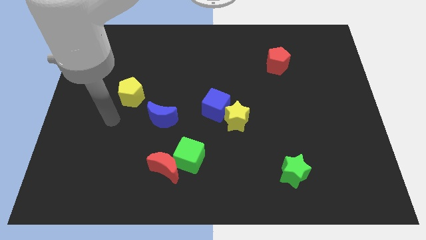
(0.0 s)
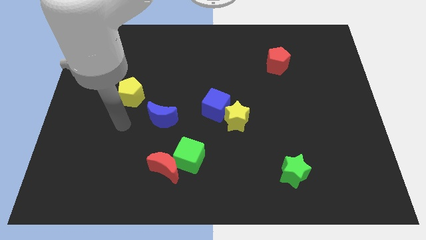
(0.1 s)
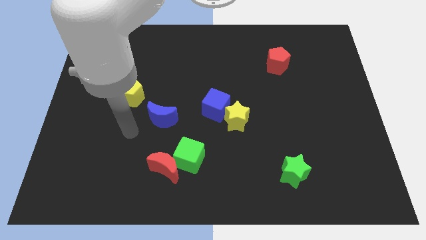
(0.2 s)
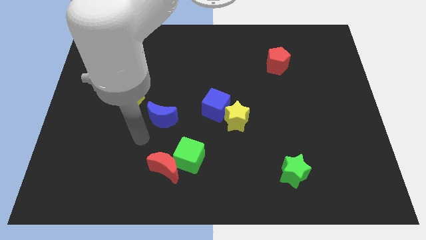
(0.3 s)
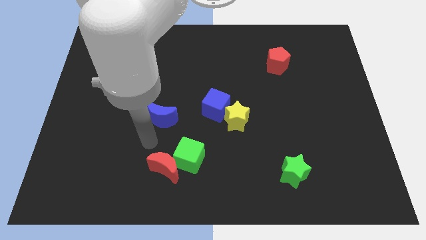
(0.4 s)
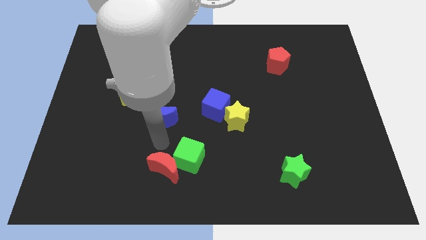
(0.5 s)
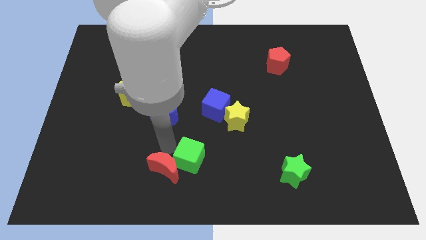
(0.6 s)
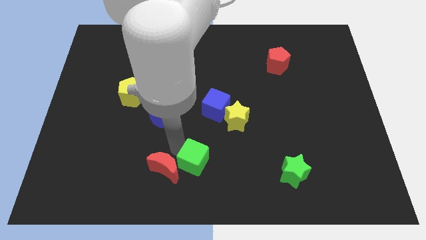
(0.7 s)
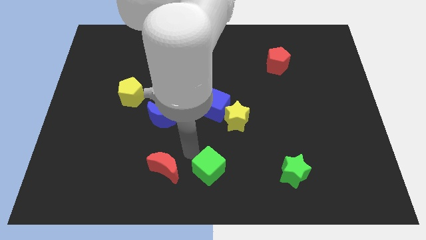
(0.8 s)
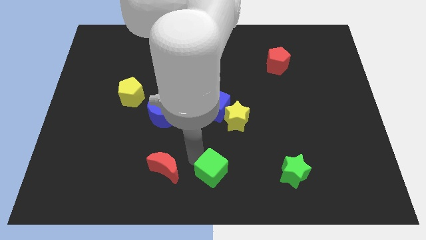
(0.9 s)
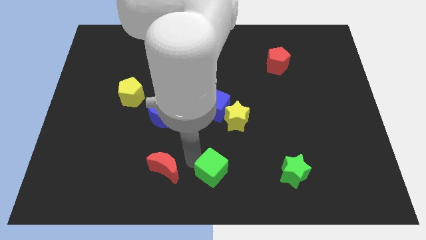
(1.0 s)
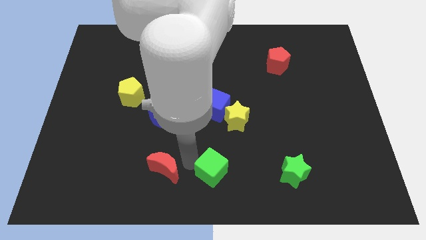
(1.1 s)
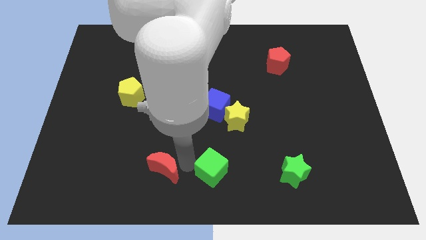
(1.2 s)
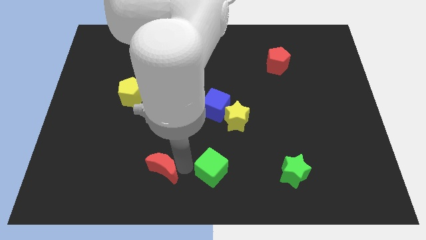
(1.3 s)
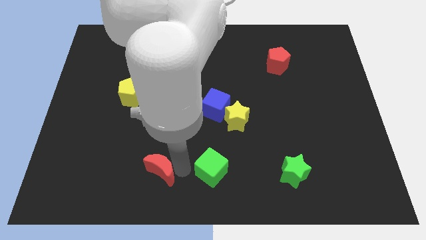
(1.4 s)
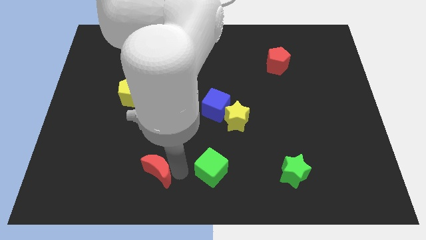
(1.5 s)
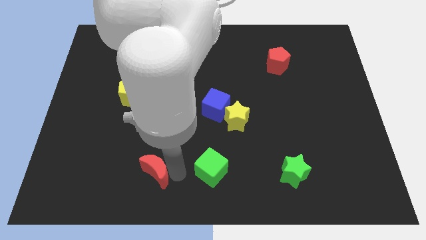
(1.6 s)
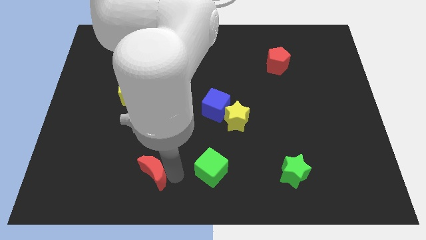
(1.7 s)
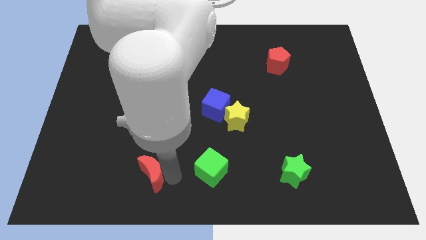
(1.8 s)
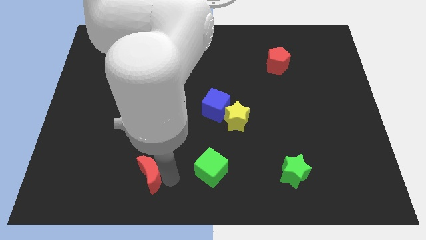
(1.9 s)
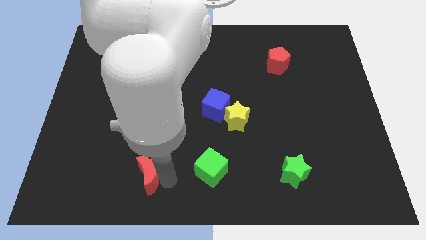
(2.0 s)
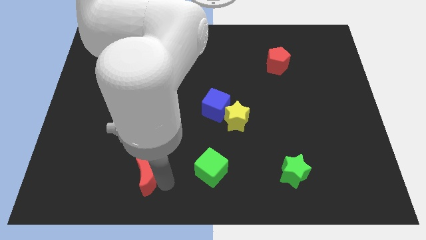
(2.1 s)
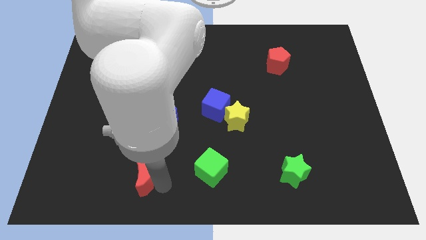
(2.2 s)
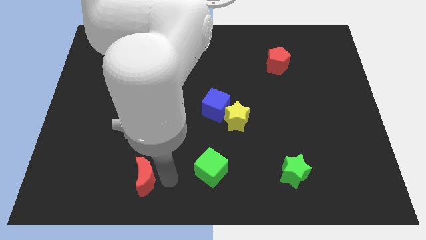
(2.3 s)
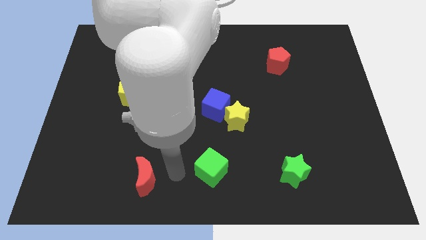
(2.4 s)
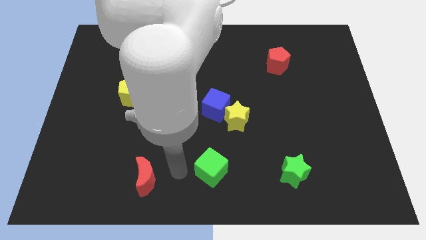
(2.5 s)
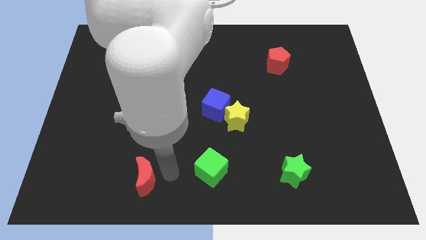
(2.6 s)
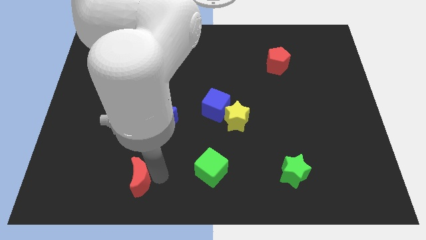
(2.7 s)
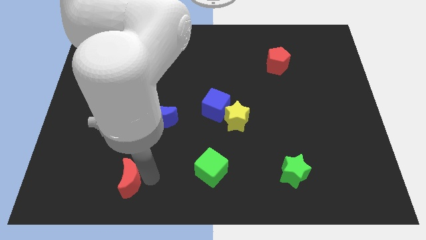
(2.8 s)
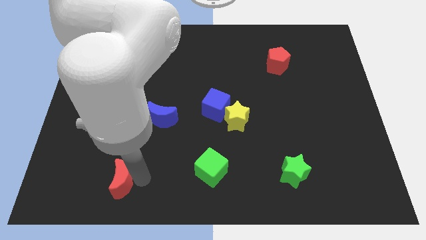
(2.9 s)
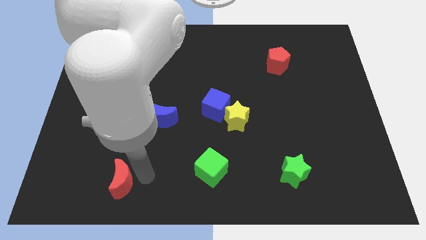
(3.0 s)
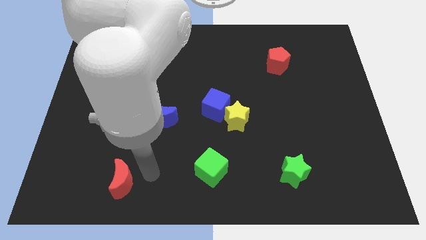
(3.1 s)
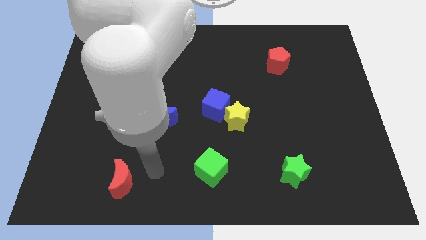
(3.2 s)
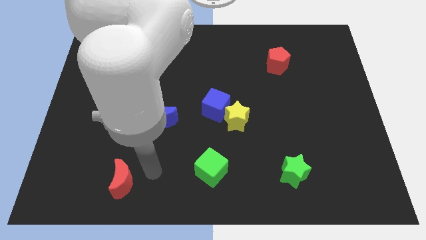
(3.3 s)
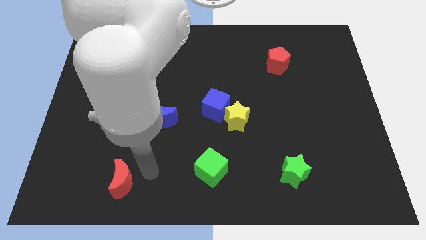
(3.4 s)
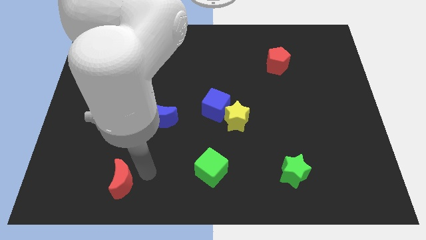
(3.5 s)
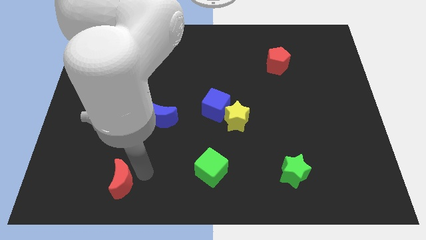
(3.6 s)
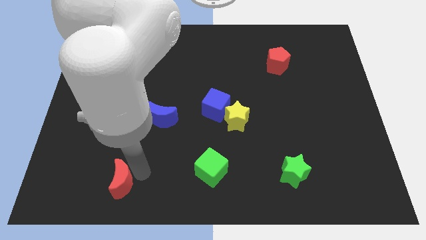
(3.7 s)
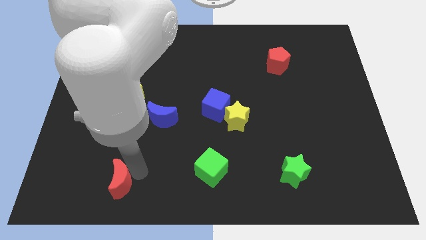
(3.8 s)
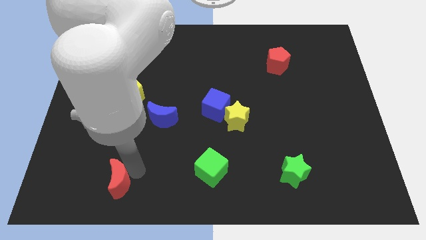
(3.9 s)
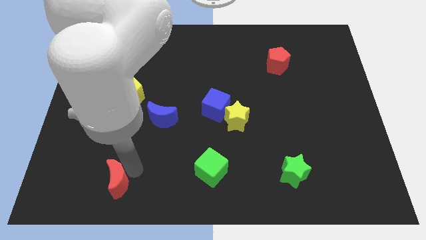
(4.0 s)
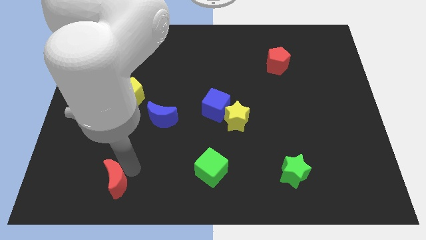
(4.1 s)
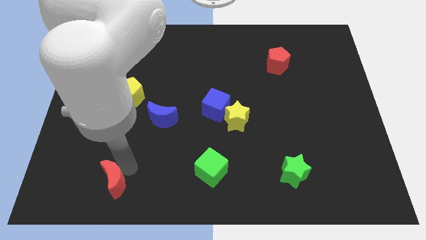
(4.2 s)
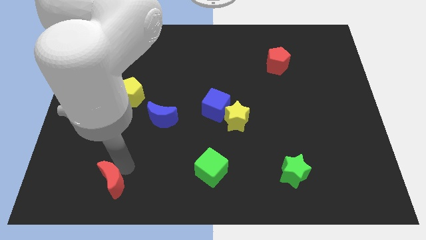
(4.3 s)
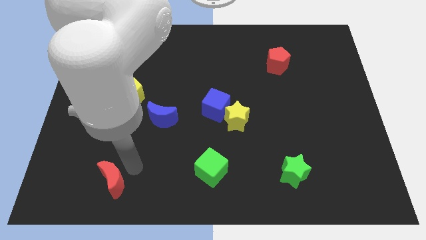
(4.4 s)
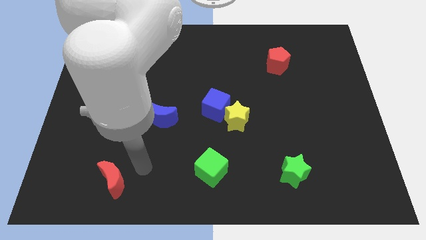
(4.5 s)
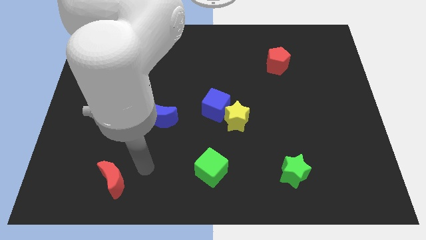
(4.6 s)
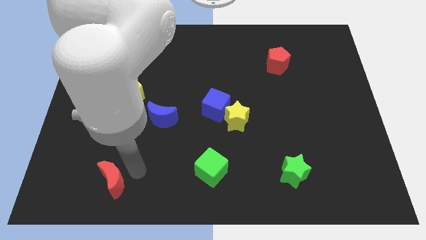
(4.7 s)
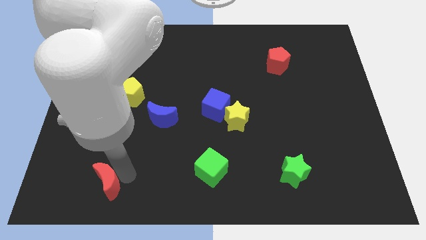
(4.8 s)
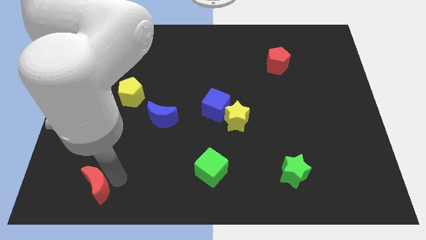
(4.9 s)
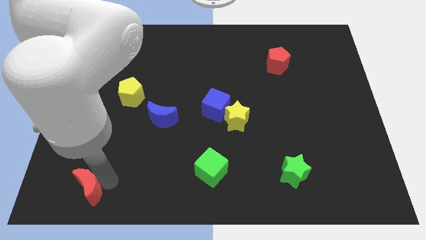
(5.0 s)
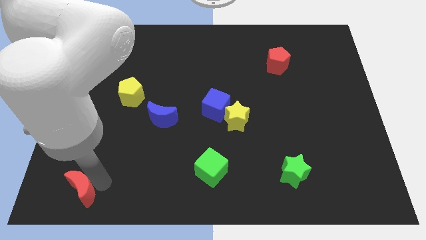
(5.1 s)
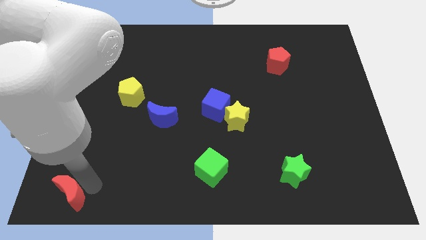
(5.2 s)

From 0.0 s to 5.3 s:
put the red moon to the lower left corner

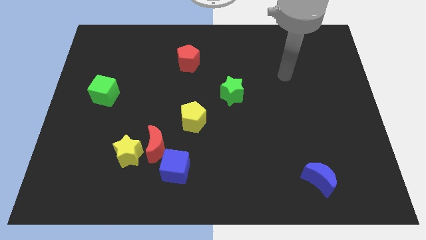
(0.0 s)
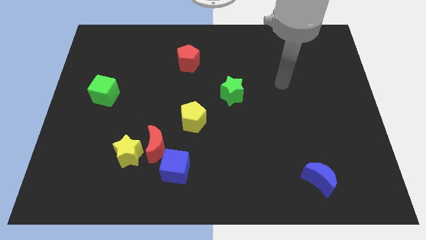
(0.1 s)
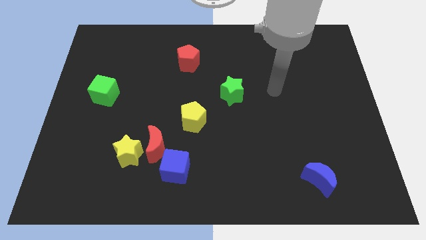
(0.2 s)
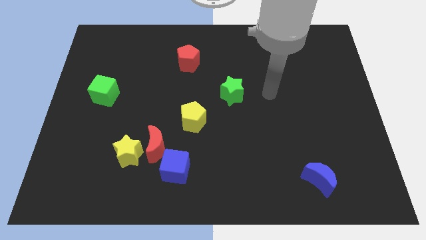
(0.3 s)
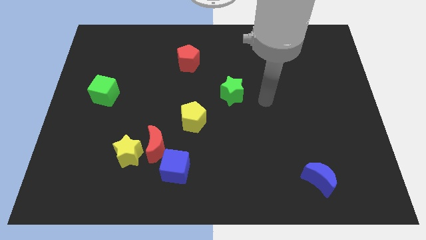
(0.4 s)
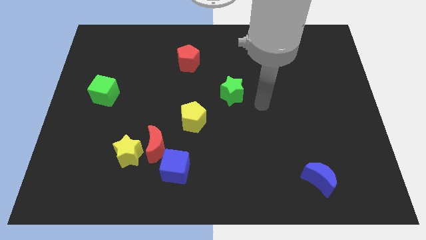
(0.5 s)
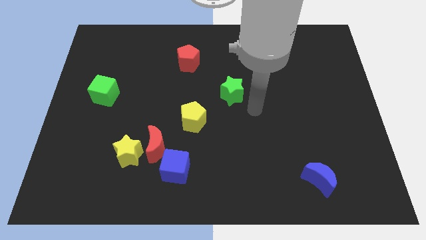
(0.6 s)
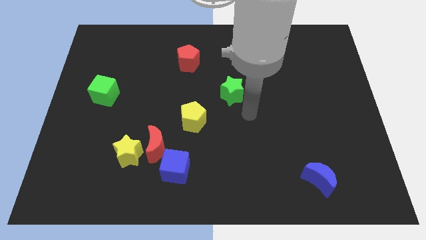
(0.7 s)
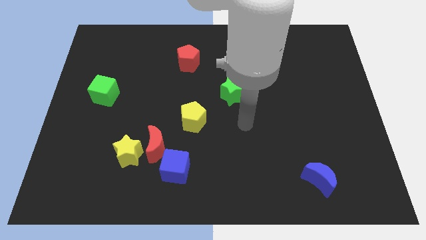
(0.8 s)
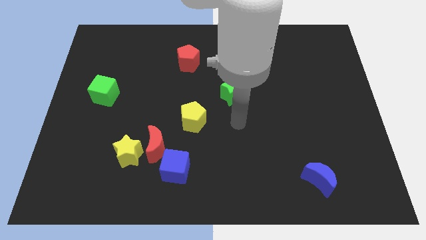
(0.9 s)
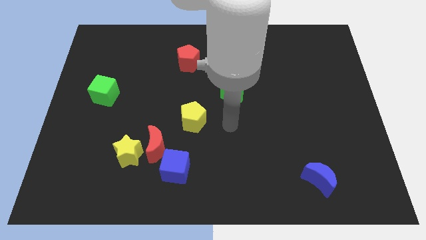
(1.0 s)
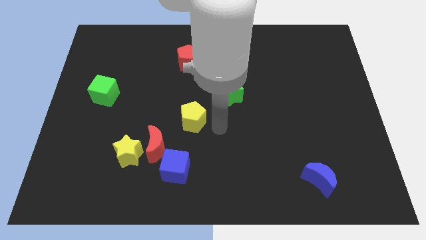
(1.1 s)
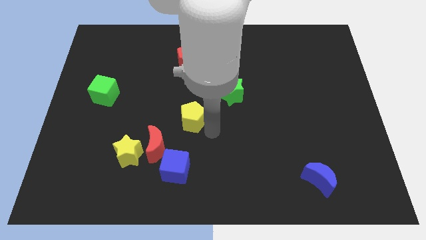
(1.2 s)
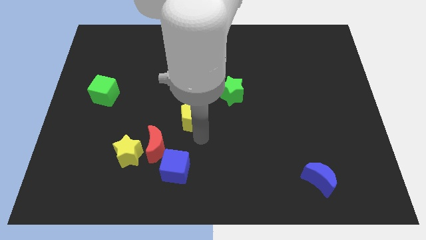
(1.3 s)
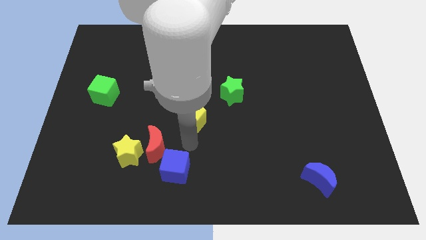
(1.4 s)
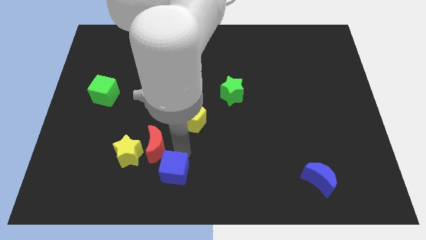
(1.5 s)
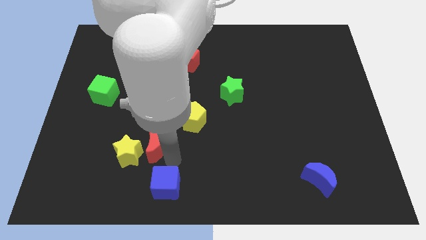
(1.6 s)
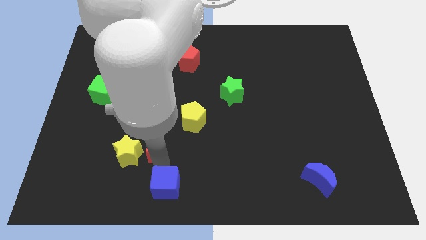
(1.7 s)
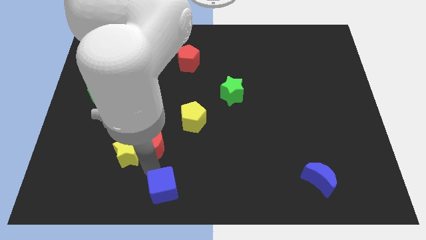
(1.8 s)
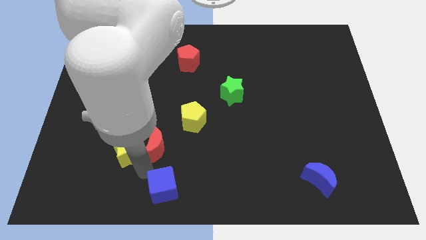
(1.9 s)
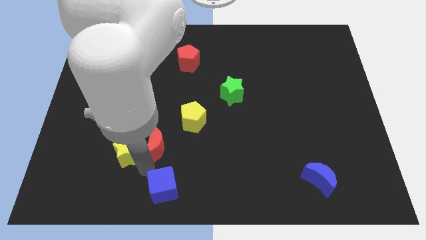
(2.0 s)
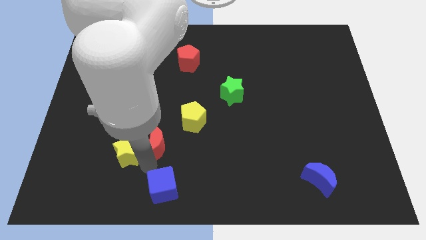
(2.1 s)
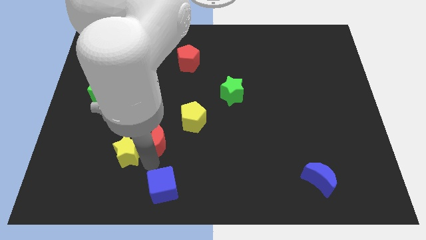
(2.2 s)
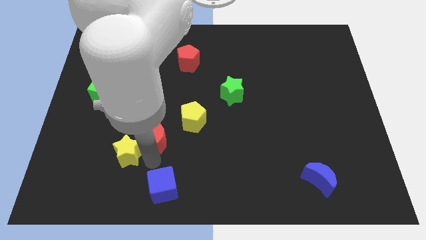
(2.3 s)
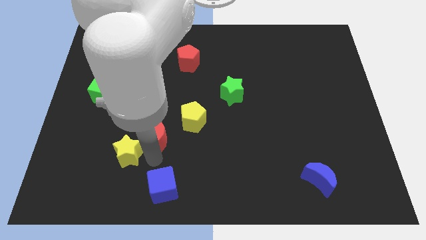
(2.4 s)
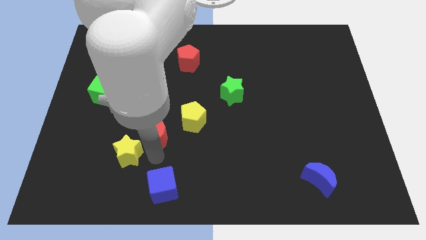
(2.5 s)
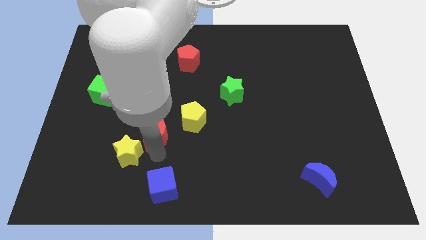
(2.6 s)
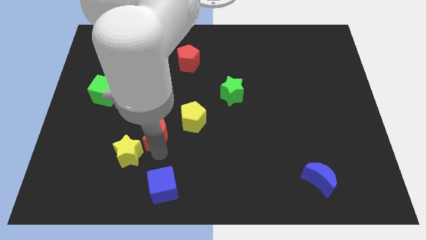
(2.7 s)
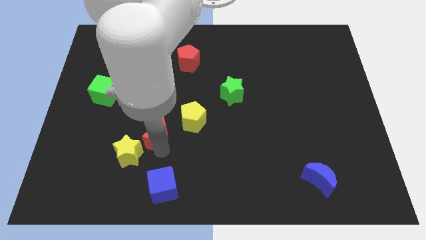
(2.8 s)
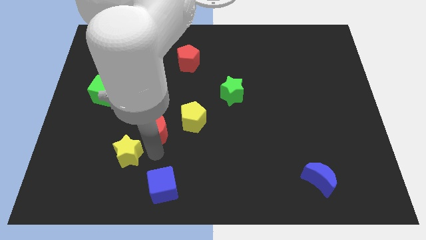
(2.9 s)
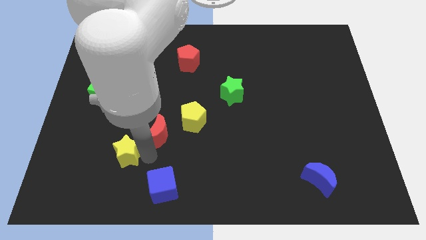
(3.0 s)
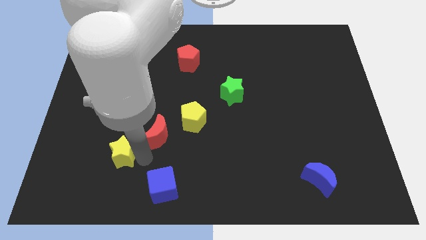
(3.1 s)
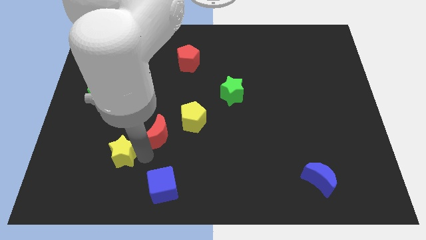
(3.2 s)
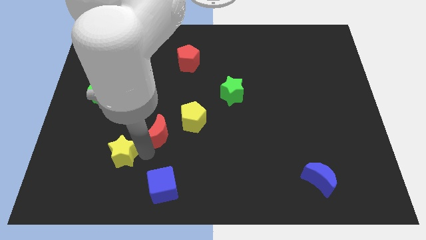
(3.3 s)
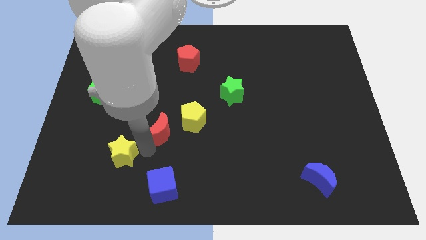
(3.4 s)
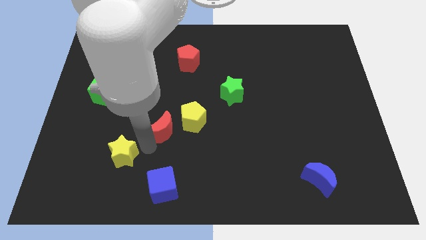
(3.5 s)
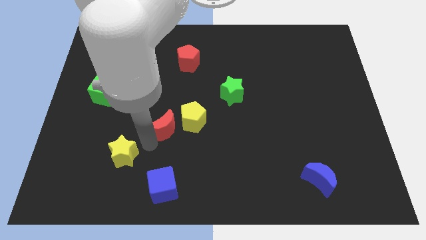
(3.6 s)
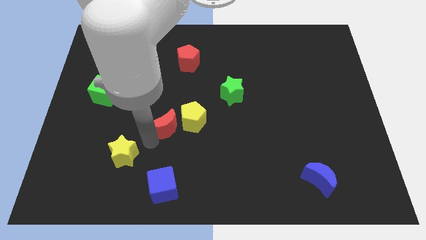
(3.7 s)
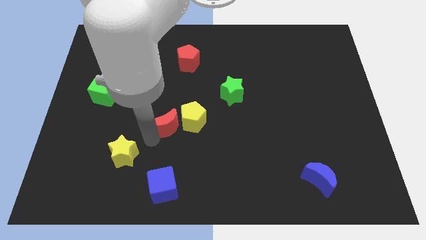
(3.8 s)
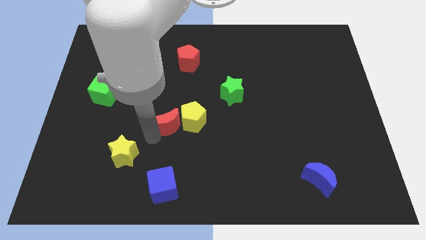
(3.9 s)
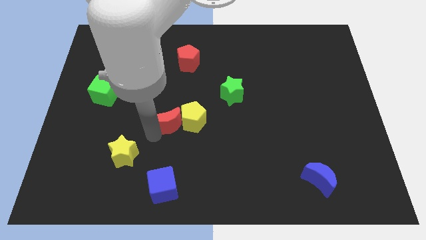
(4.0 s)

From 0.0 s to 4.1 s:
move the red moon to the middle of the board
